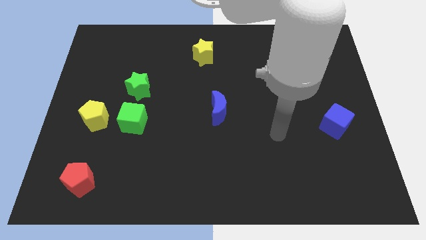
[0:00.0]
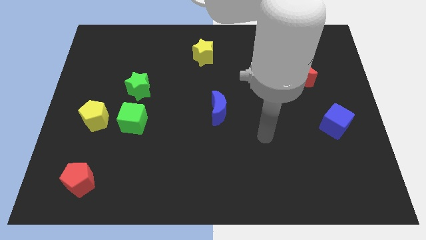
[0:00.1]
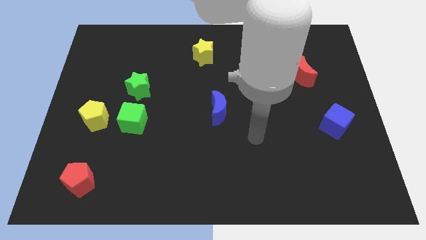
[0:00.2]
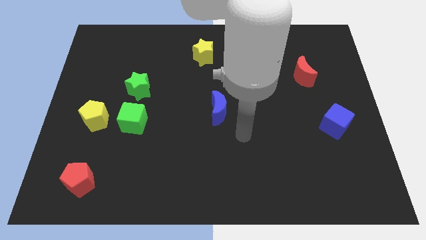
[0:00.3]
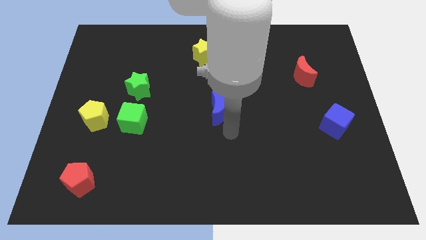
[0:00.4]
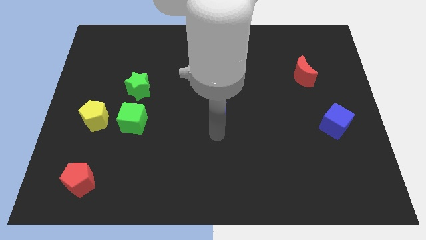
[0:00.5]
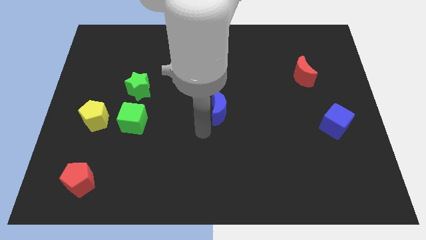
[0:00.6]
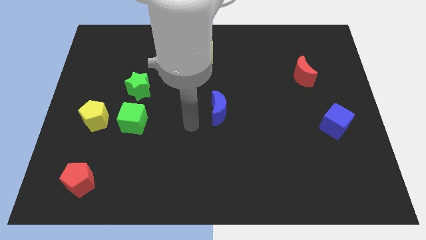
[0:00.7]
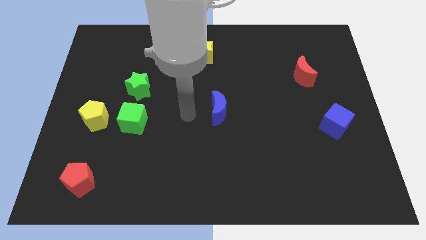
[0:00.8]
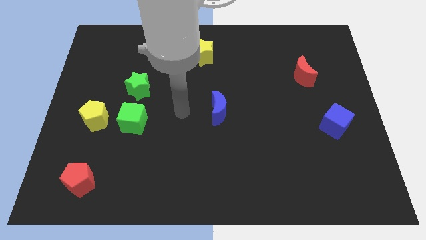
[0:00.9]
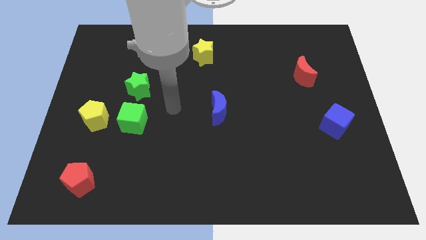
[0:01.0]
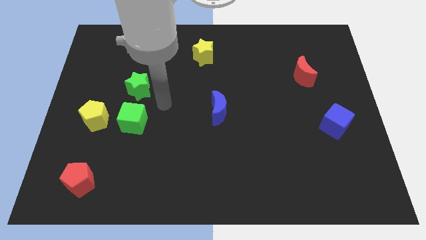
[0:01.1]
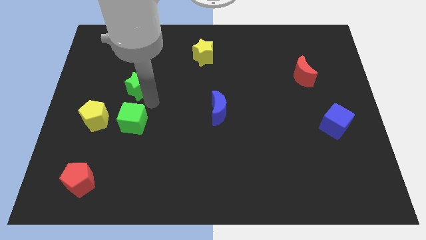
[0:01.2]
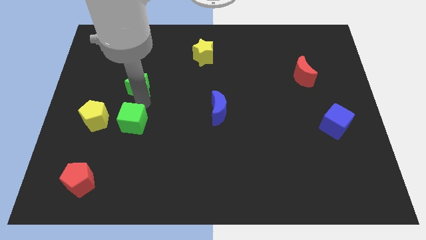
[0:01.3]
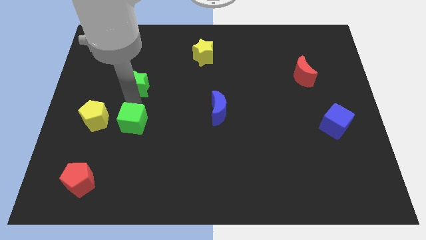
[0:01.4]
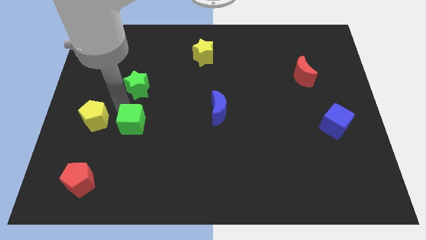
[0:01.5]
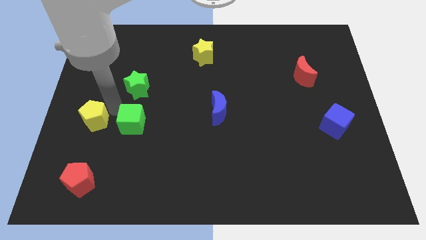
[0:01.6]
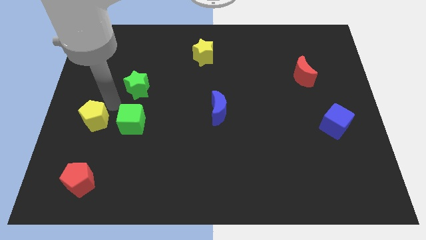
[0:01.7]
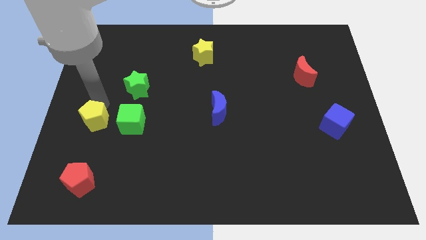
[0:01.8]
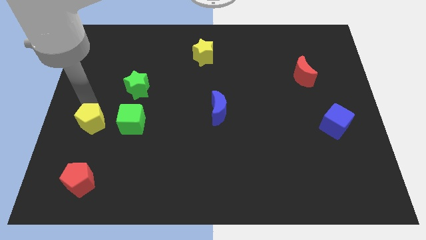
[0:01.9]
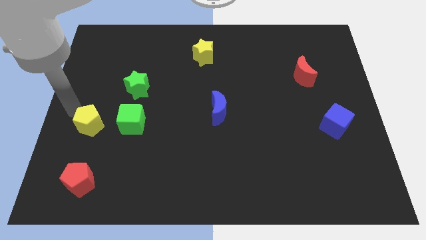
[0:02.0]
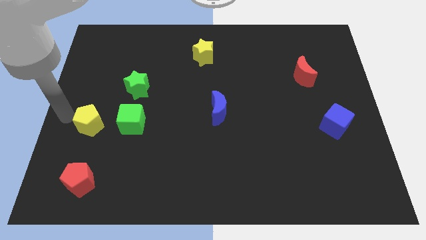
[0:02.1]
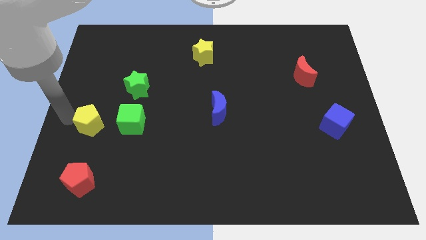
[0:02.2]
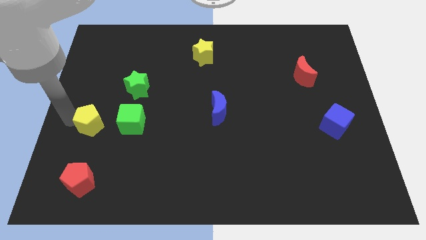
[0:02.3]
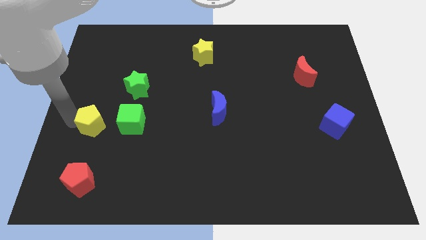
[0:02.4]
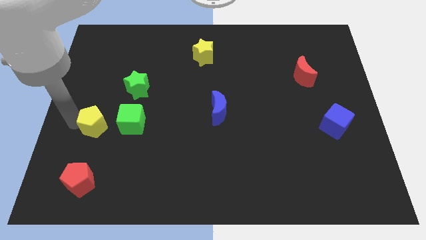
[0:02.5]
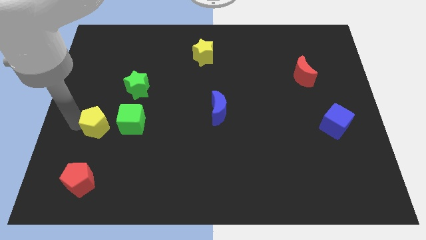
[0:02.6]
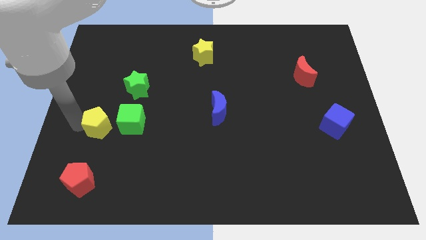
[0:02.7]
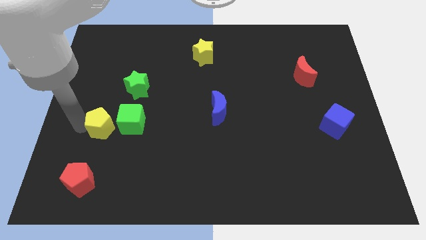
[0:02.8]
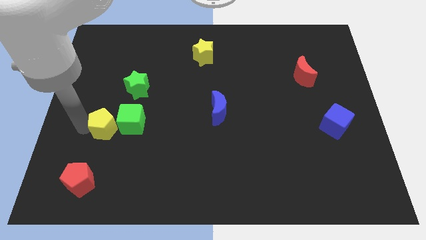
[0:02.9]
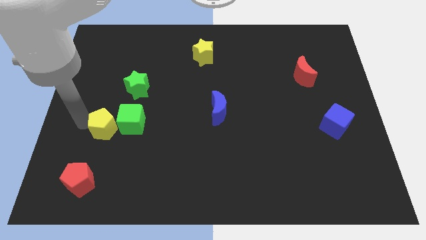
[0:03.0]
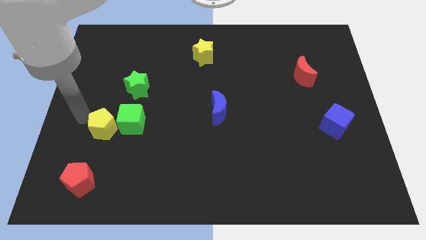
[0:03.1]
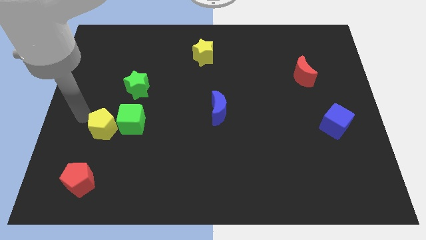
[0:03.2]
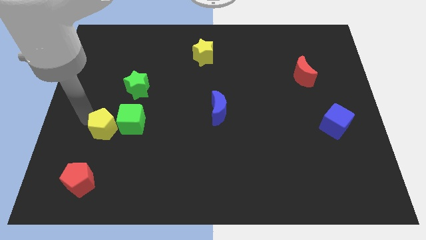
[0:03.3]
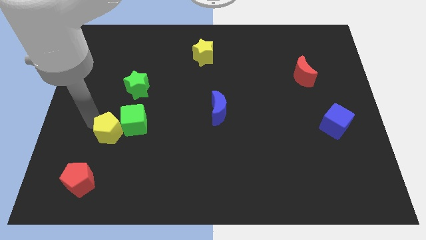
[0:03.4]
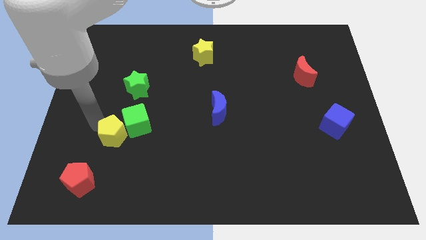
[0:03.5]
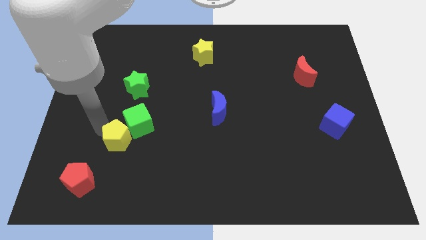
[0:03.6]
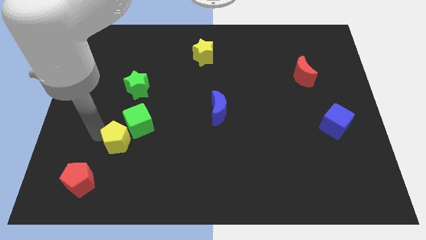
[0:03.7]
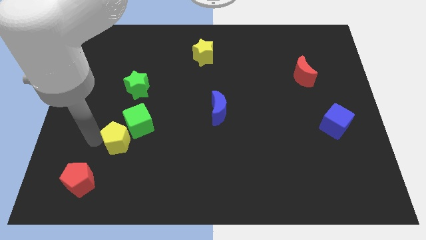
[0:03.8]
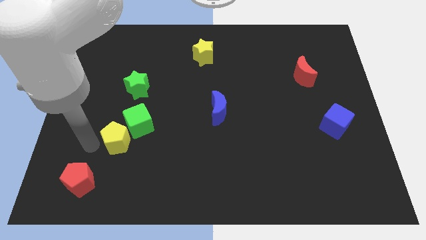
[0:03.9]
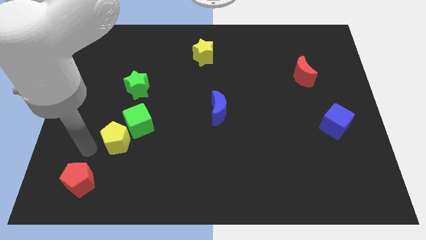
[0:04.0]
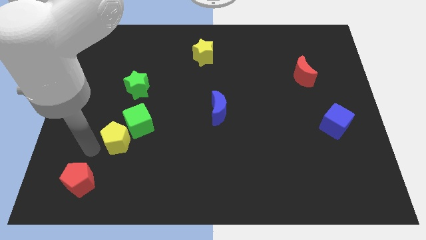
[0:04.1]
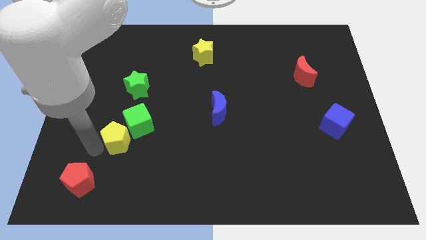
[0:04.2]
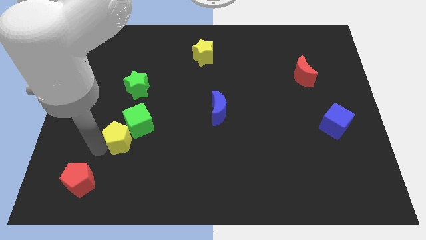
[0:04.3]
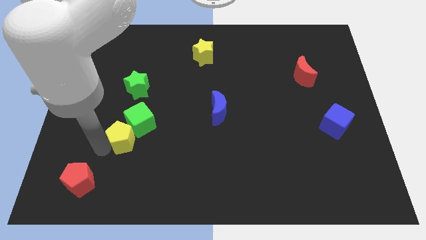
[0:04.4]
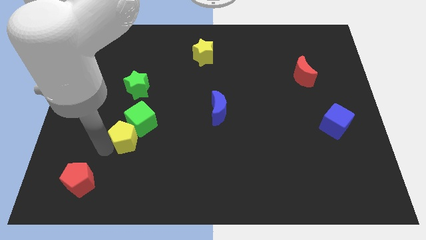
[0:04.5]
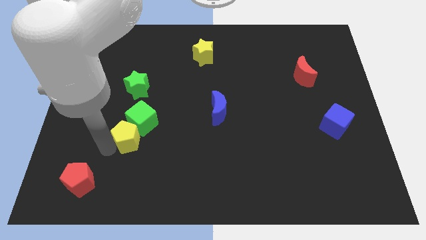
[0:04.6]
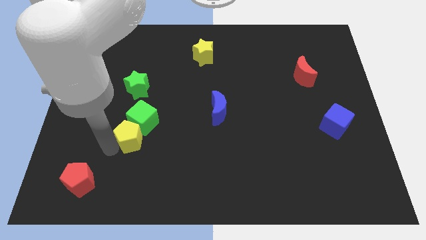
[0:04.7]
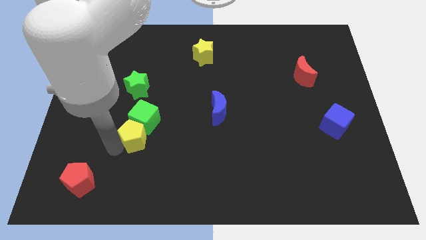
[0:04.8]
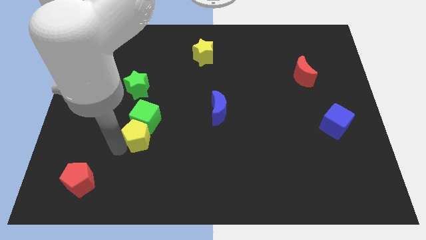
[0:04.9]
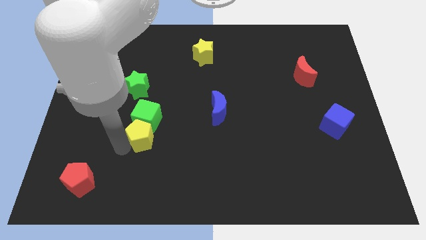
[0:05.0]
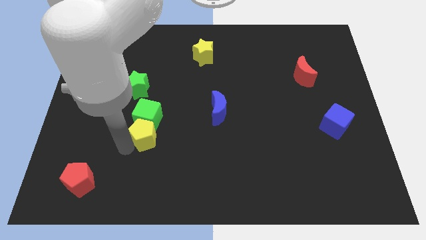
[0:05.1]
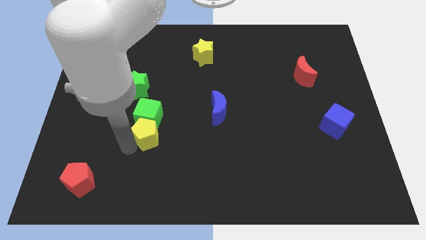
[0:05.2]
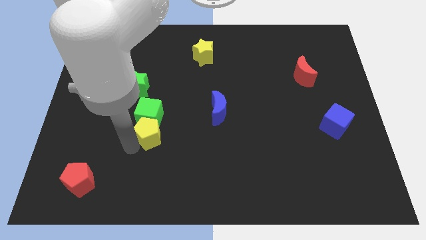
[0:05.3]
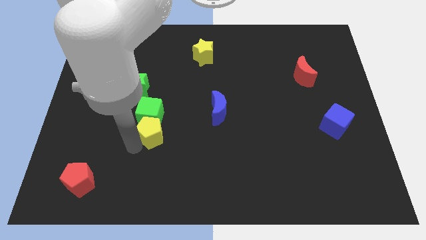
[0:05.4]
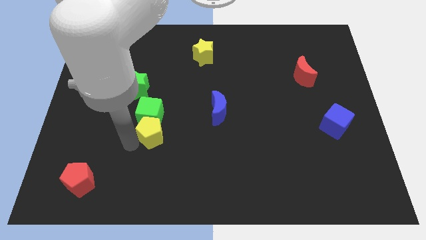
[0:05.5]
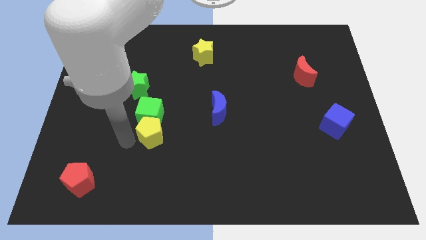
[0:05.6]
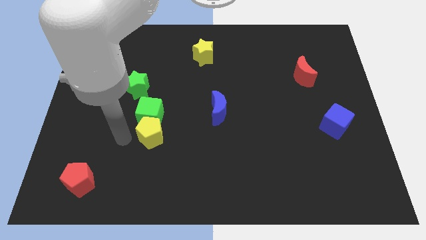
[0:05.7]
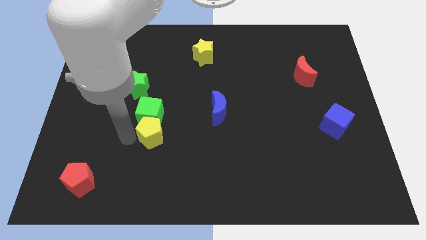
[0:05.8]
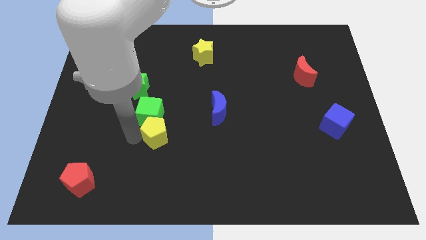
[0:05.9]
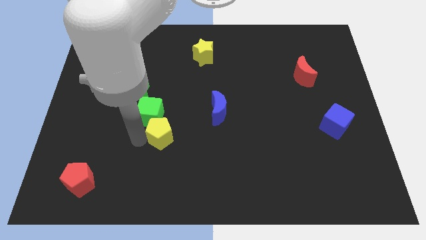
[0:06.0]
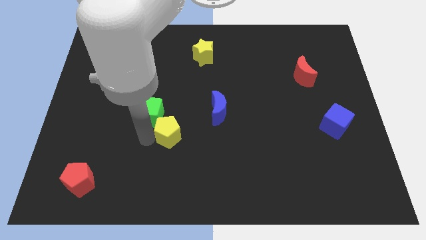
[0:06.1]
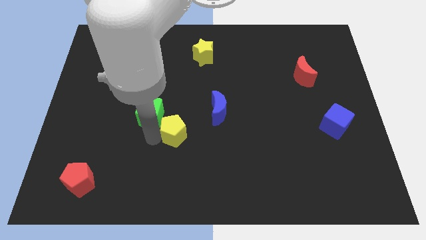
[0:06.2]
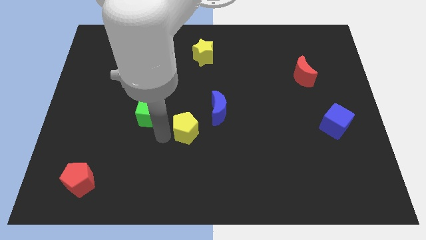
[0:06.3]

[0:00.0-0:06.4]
slide the yellow pentagon right

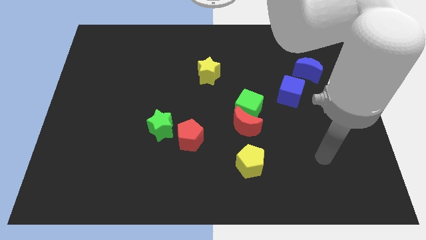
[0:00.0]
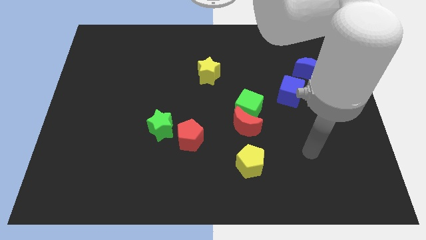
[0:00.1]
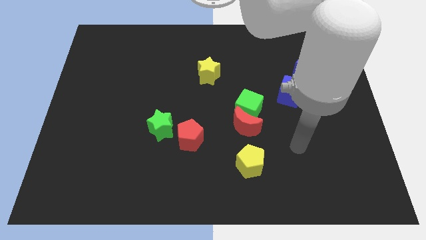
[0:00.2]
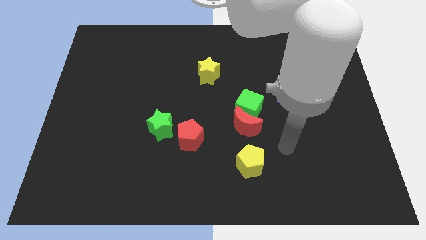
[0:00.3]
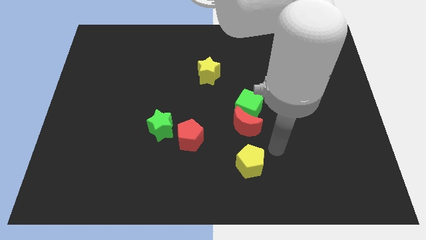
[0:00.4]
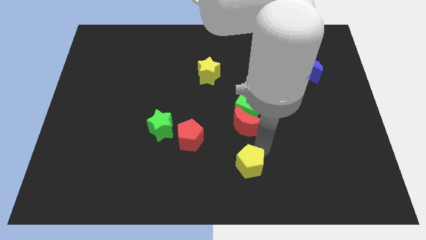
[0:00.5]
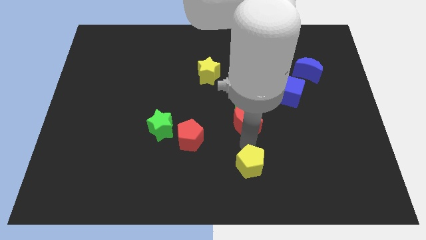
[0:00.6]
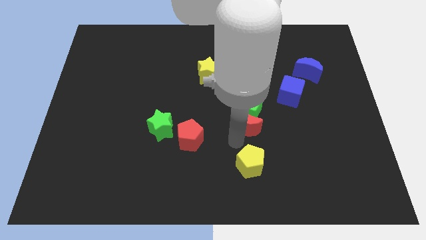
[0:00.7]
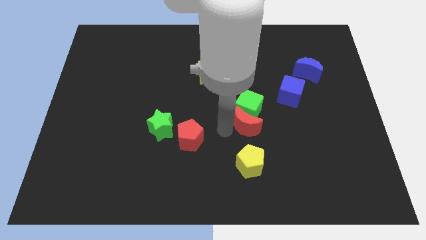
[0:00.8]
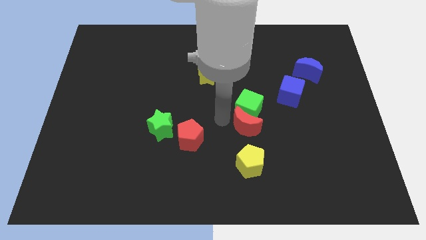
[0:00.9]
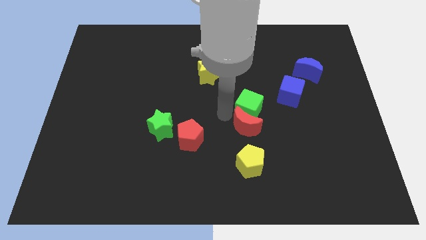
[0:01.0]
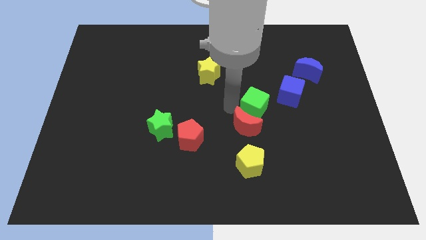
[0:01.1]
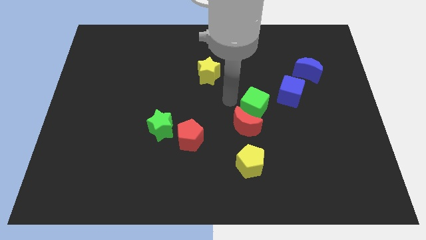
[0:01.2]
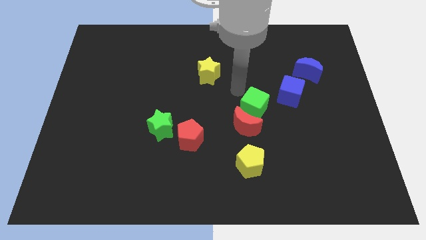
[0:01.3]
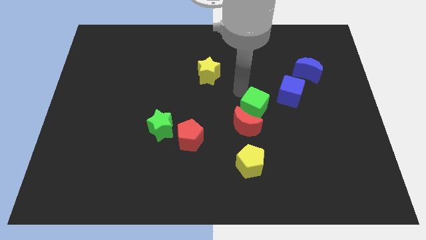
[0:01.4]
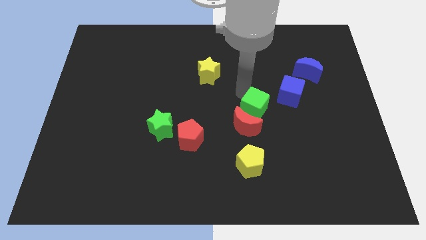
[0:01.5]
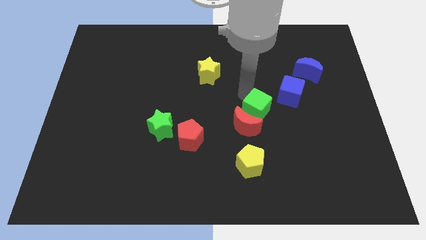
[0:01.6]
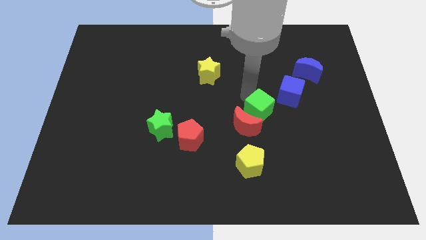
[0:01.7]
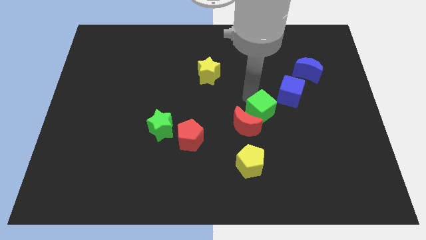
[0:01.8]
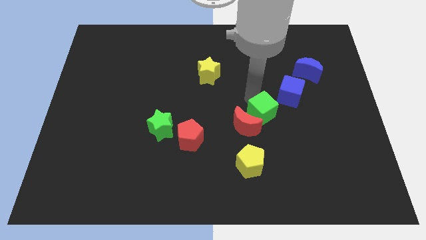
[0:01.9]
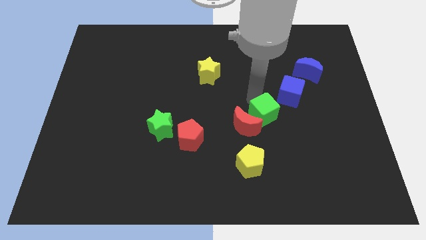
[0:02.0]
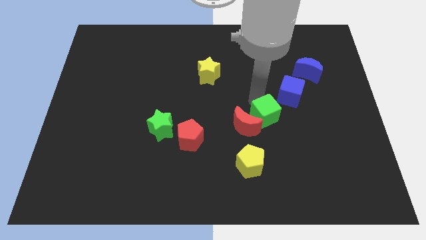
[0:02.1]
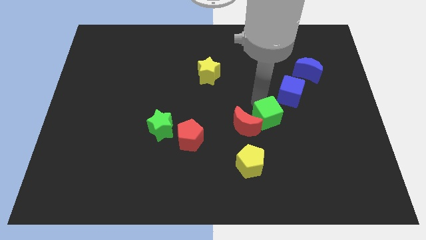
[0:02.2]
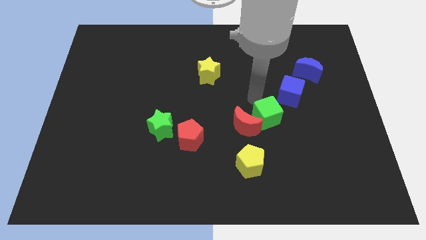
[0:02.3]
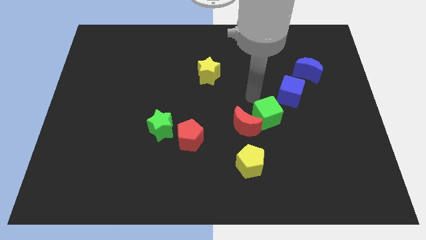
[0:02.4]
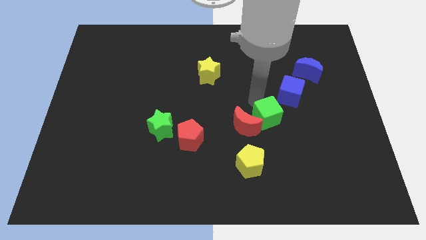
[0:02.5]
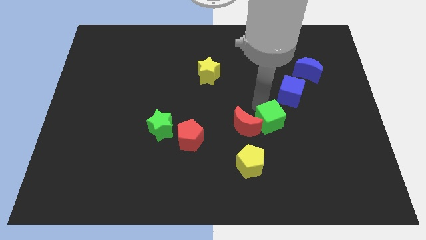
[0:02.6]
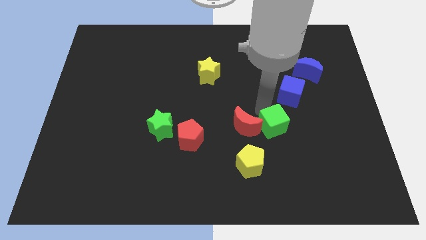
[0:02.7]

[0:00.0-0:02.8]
push the green cube down and right somewhat
